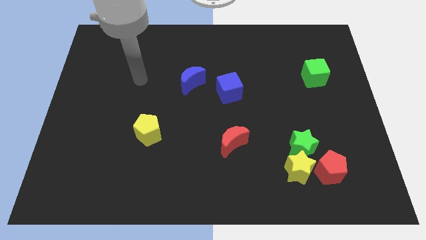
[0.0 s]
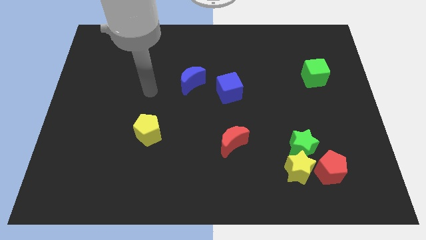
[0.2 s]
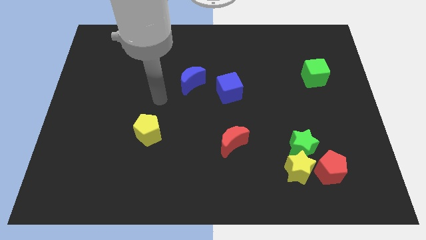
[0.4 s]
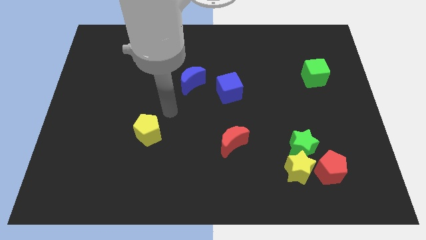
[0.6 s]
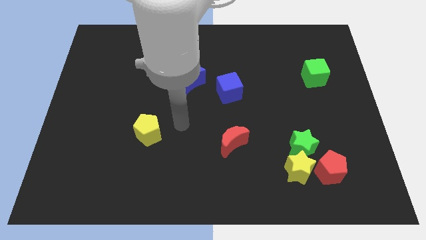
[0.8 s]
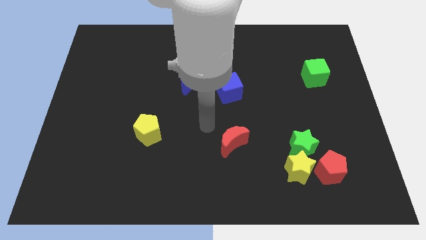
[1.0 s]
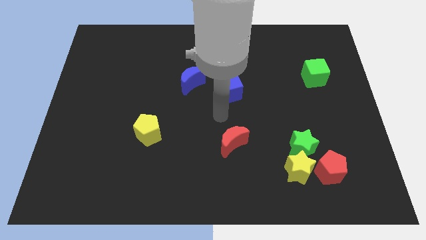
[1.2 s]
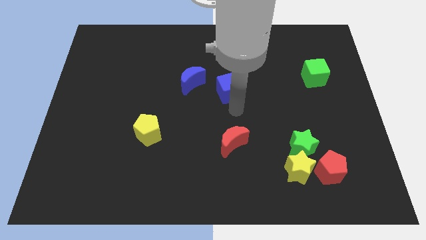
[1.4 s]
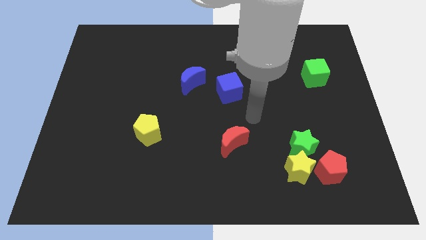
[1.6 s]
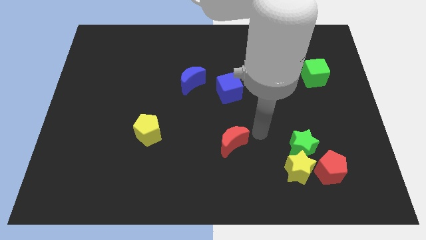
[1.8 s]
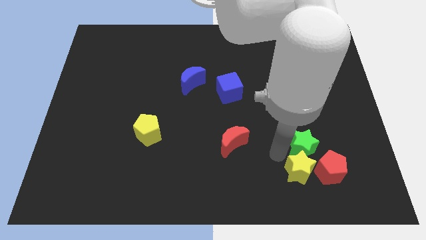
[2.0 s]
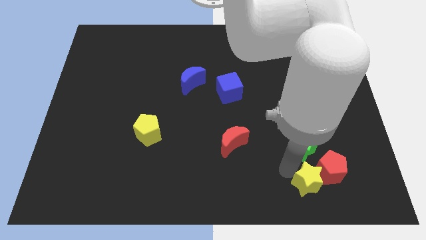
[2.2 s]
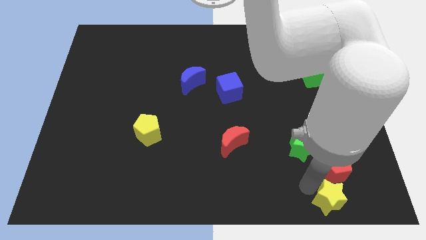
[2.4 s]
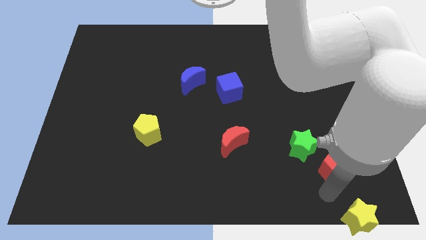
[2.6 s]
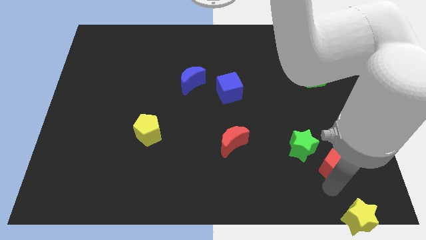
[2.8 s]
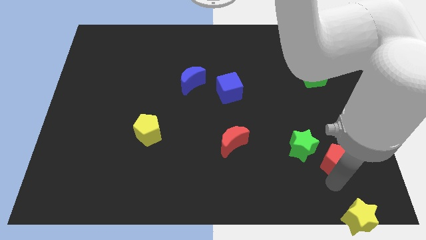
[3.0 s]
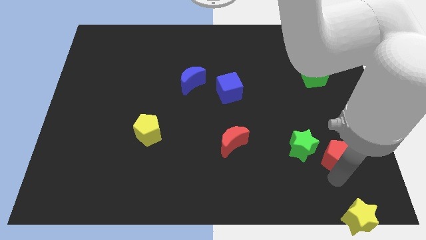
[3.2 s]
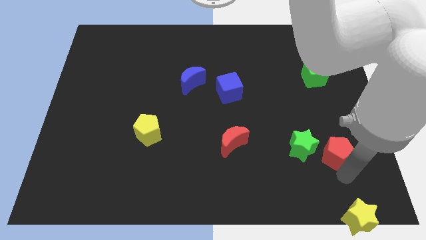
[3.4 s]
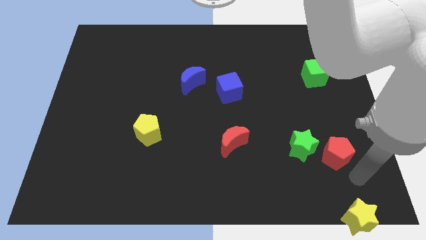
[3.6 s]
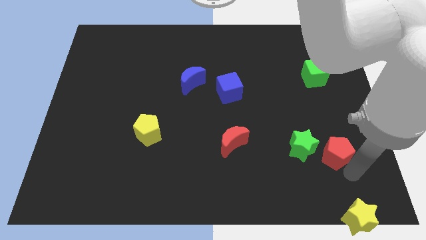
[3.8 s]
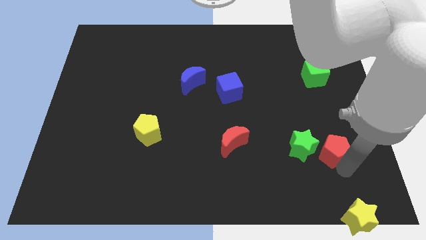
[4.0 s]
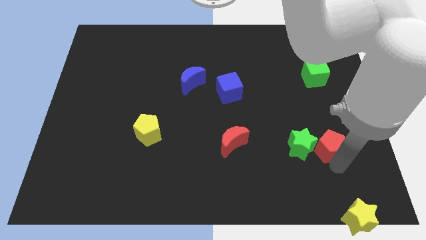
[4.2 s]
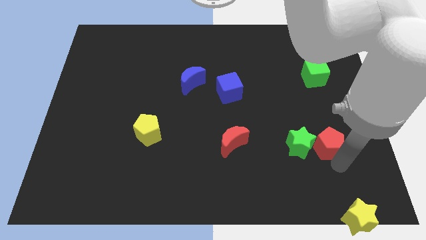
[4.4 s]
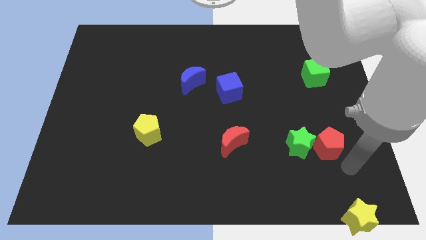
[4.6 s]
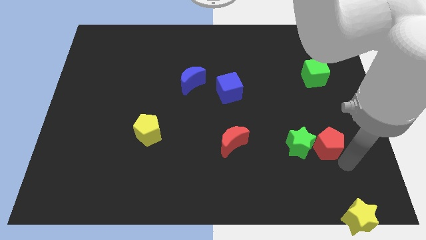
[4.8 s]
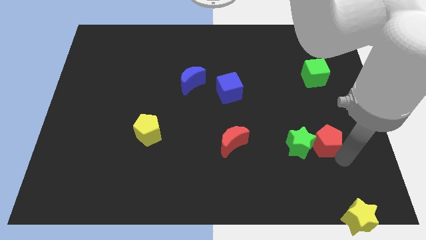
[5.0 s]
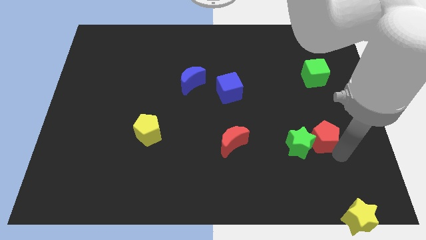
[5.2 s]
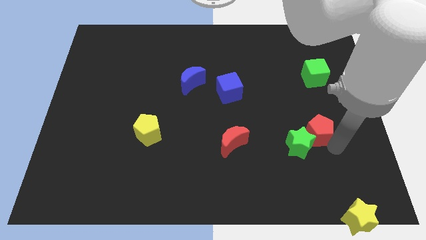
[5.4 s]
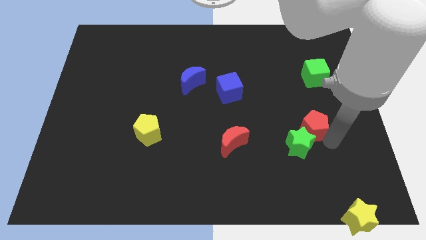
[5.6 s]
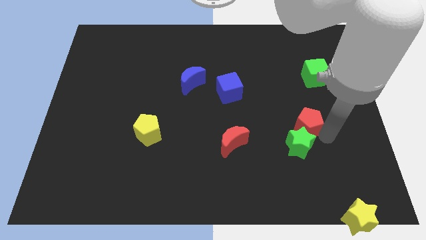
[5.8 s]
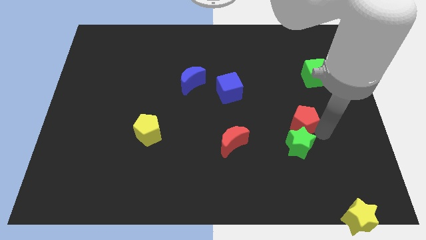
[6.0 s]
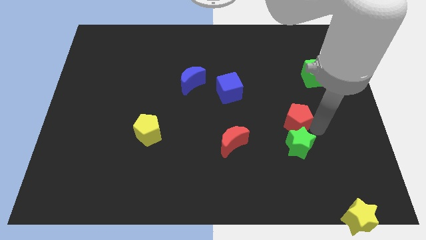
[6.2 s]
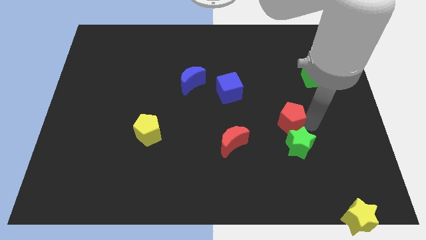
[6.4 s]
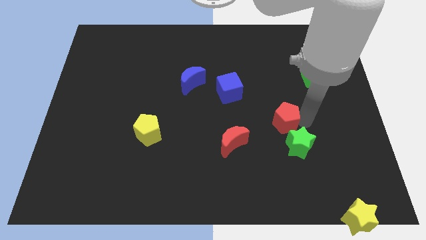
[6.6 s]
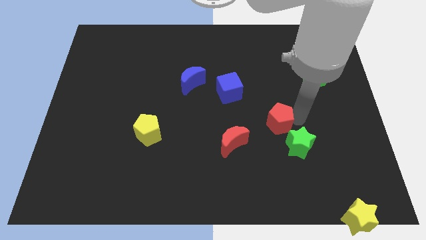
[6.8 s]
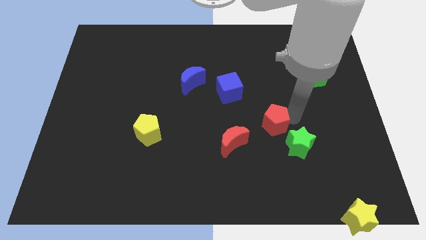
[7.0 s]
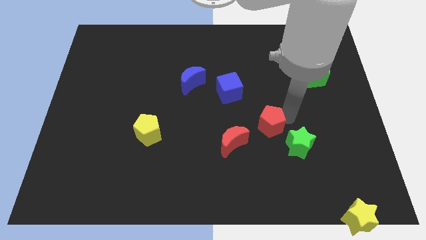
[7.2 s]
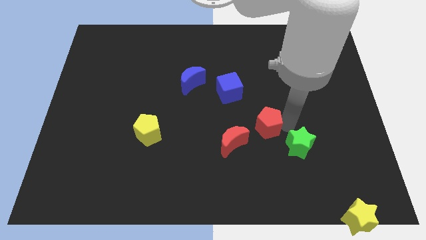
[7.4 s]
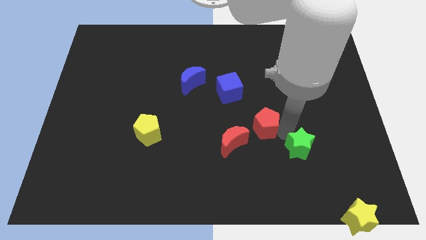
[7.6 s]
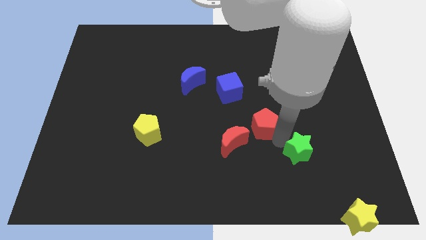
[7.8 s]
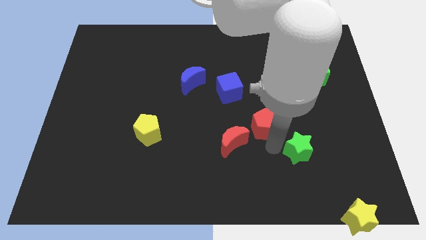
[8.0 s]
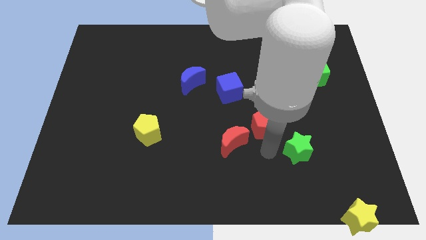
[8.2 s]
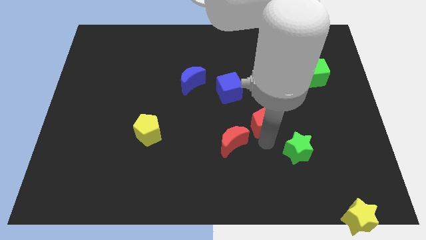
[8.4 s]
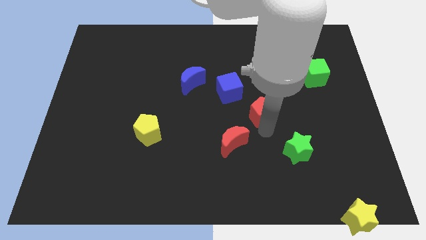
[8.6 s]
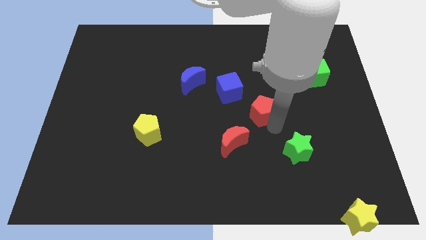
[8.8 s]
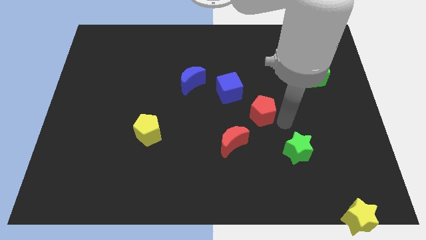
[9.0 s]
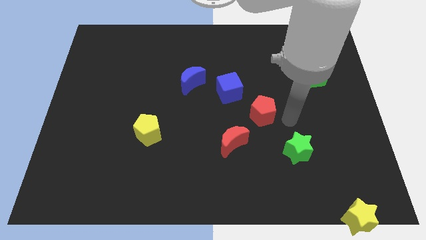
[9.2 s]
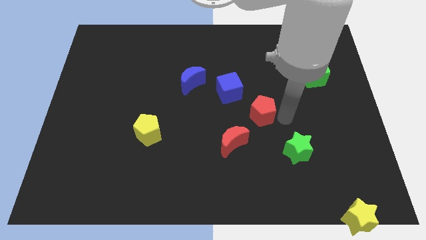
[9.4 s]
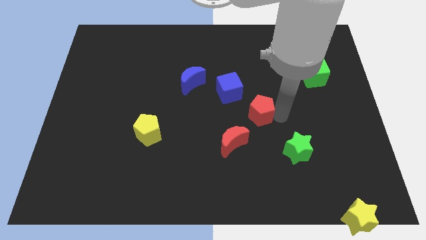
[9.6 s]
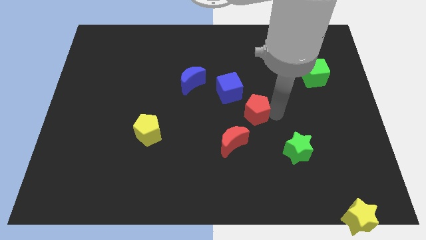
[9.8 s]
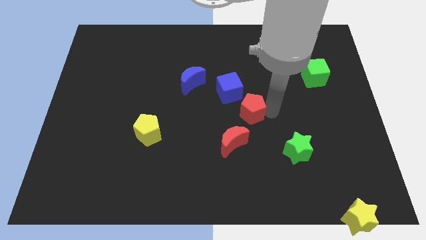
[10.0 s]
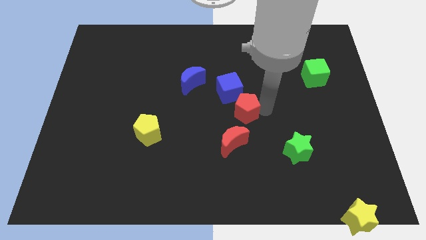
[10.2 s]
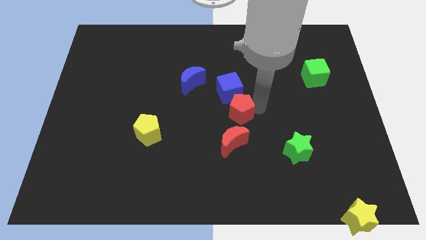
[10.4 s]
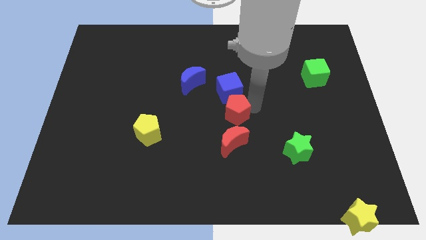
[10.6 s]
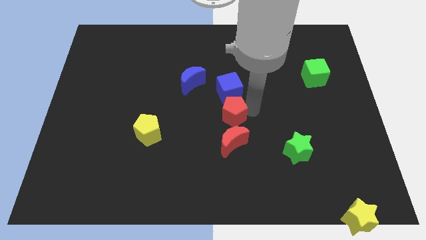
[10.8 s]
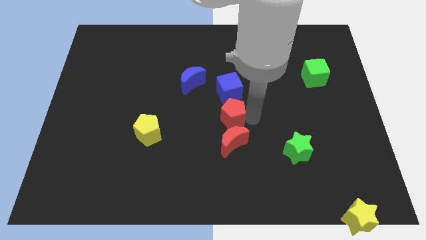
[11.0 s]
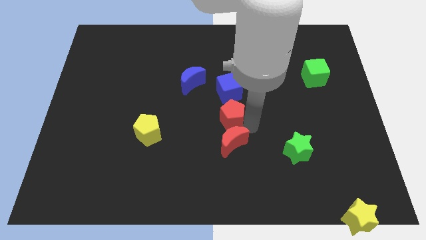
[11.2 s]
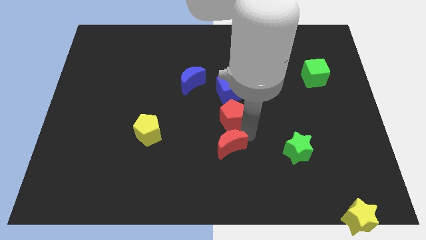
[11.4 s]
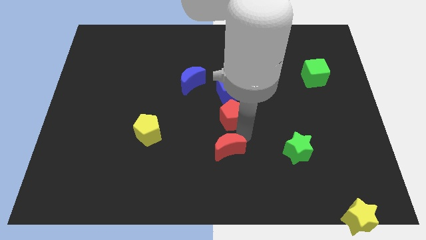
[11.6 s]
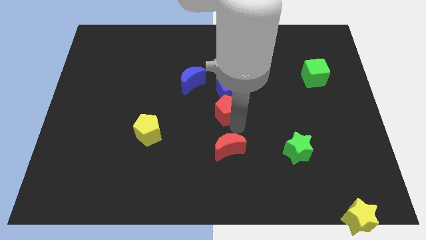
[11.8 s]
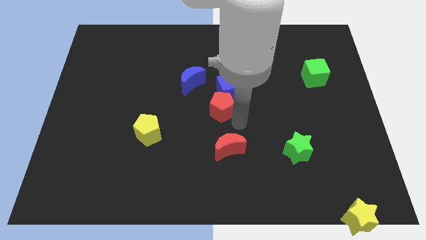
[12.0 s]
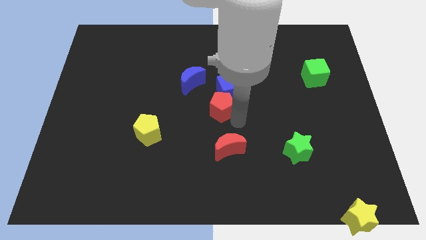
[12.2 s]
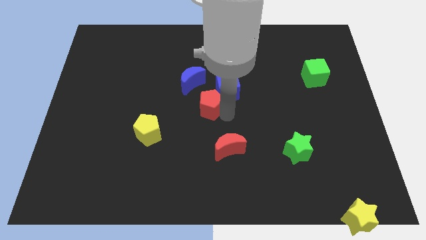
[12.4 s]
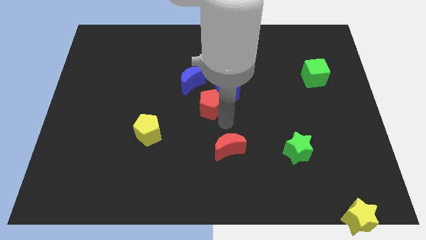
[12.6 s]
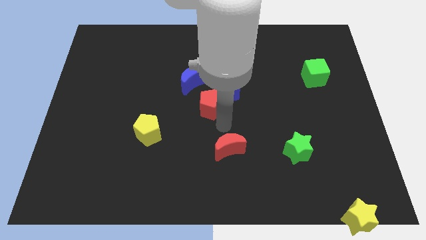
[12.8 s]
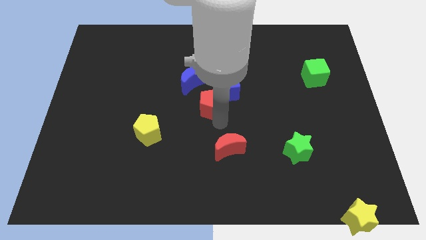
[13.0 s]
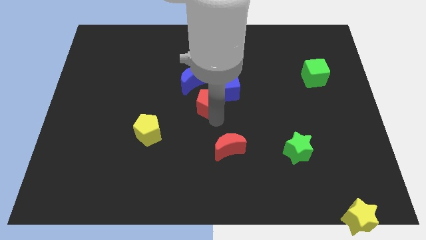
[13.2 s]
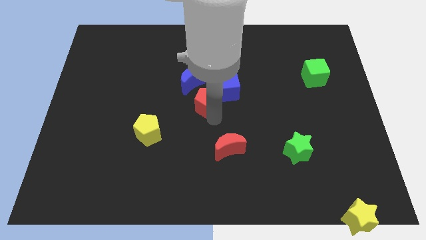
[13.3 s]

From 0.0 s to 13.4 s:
put the red pentagon left of the blue cube
